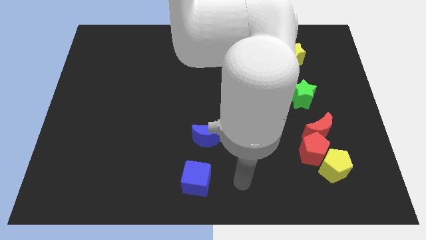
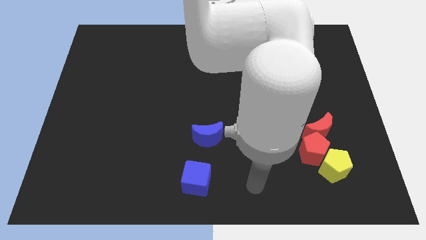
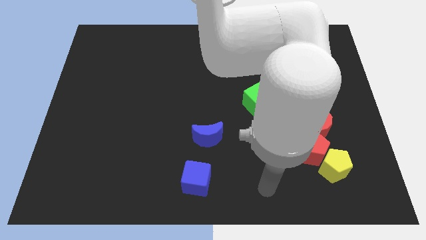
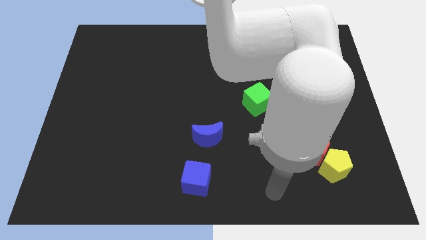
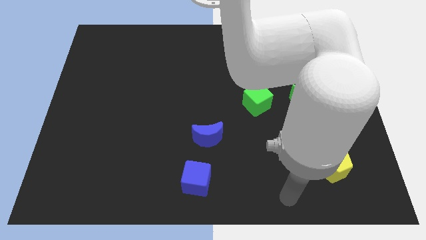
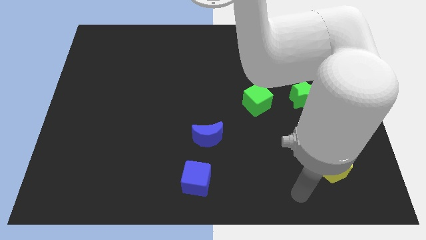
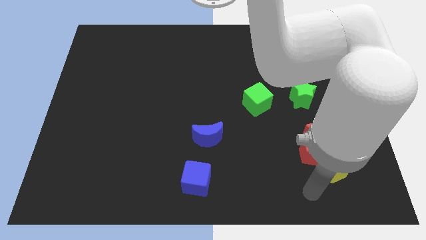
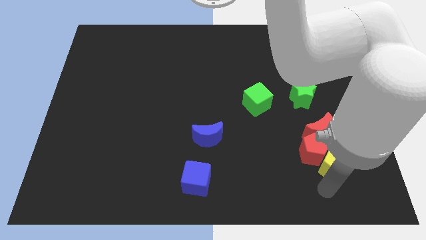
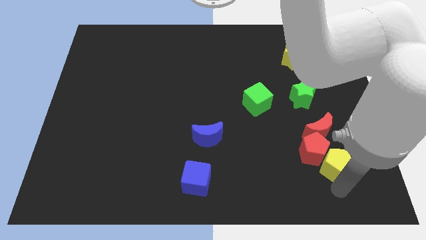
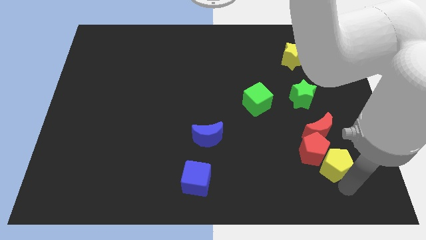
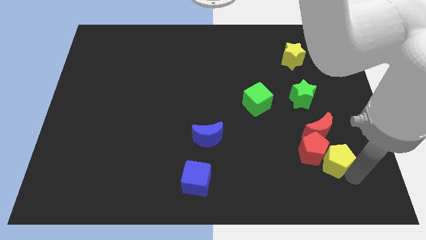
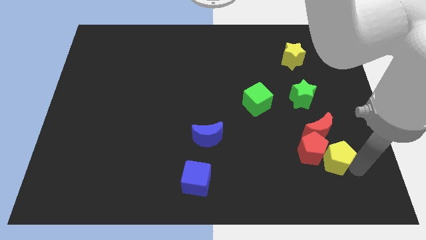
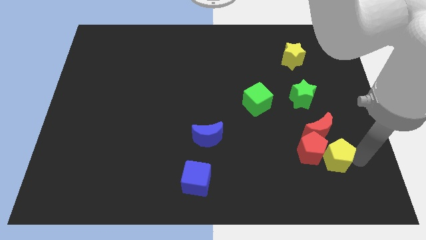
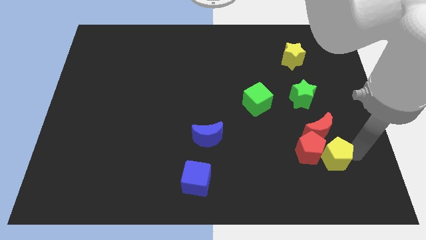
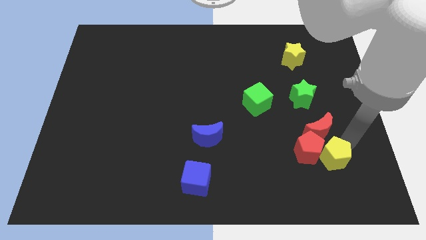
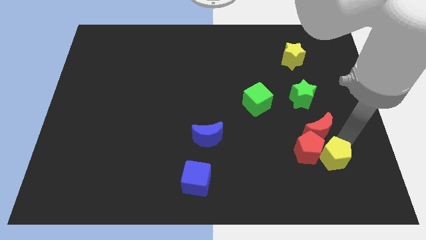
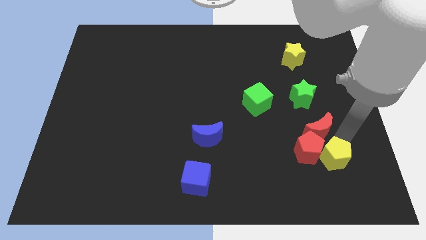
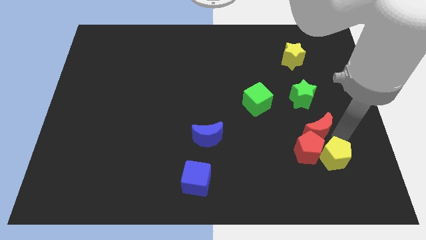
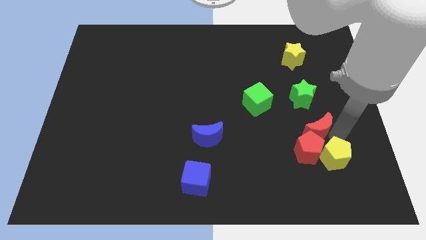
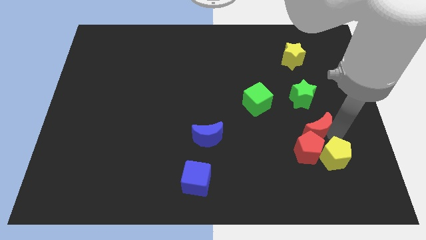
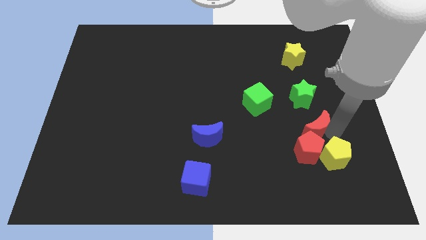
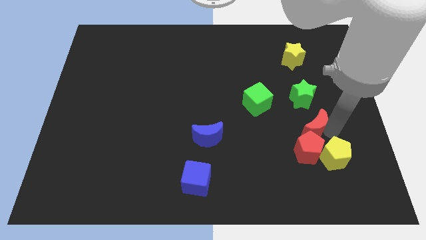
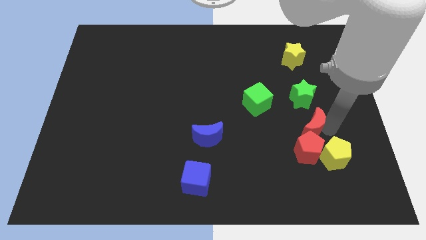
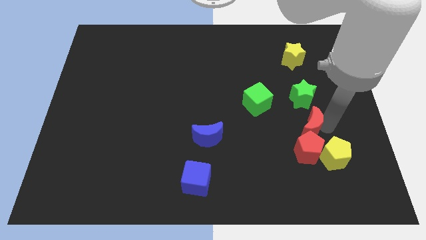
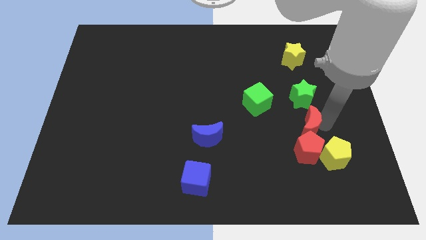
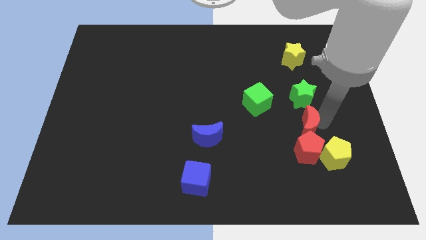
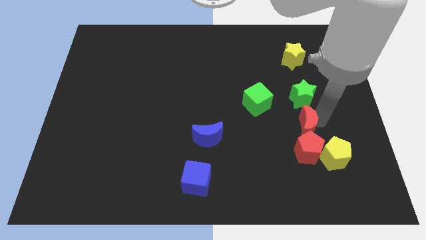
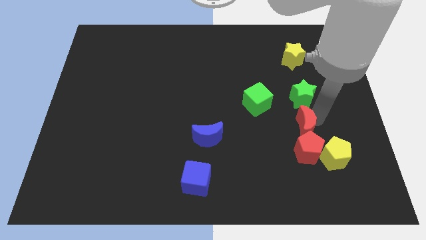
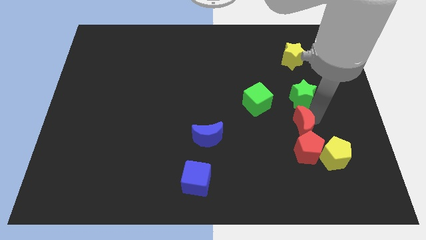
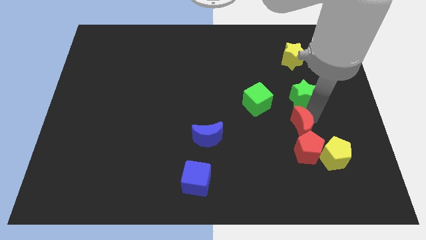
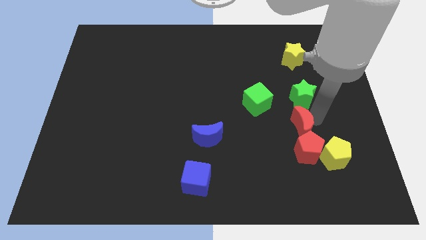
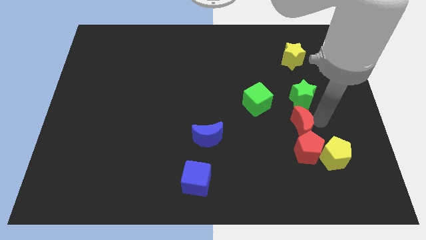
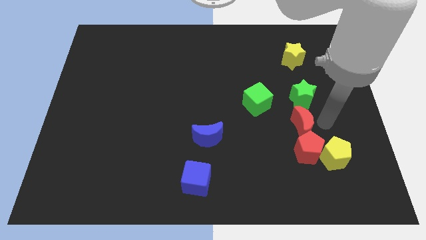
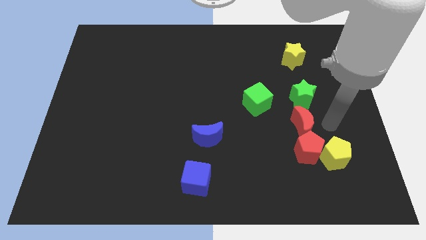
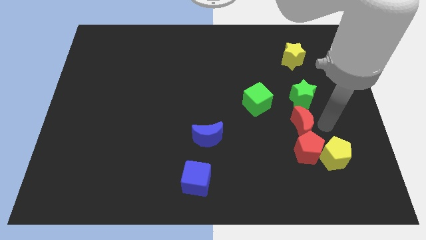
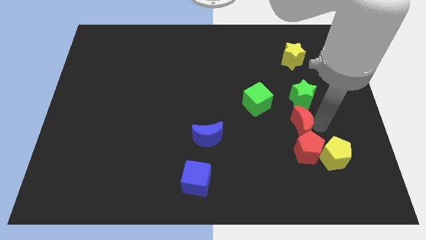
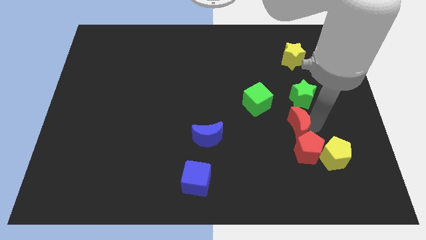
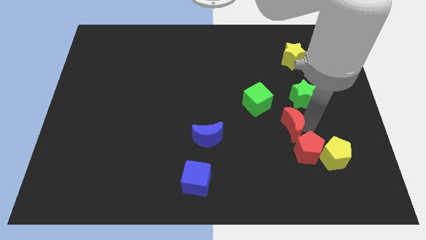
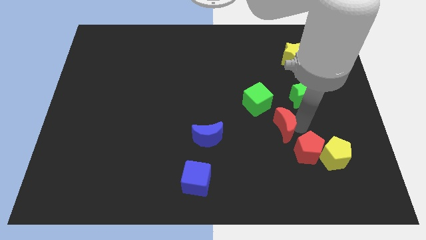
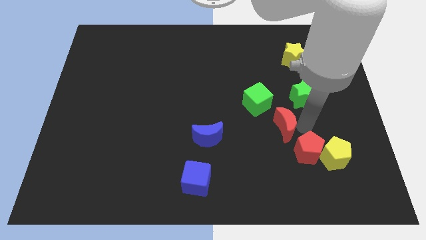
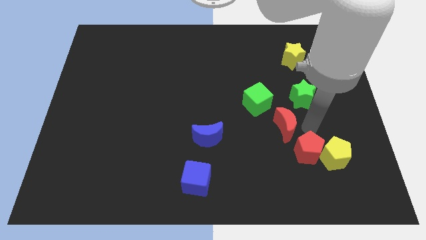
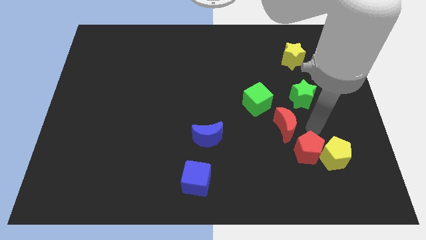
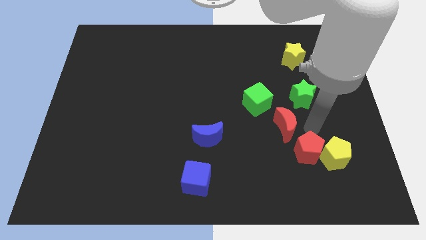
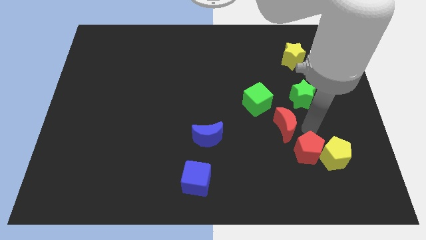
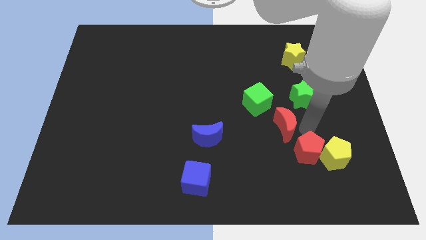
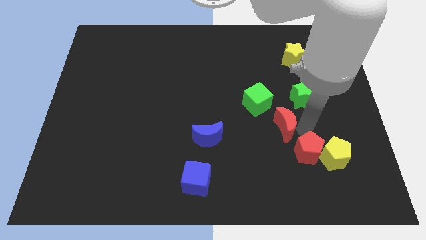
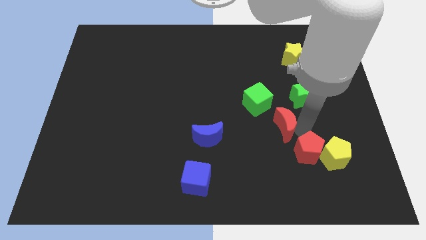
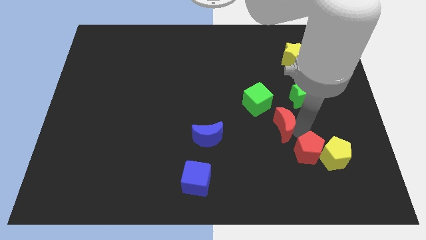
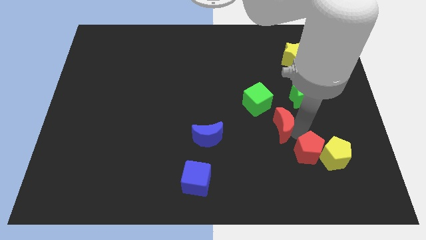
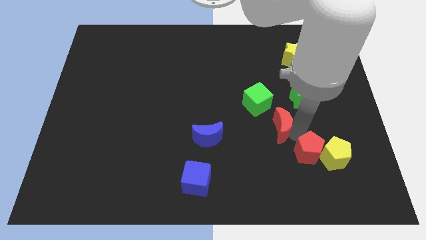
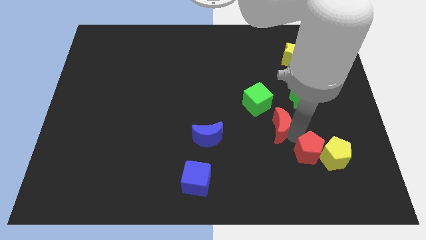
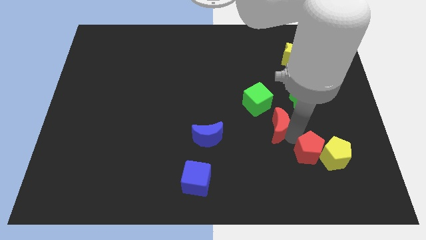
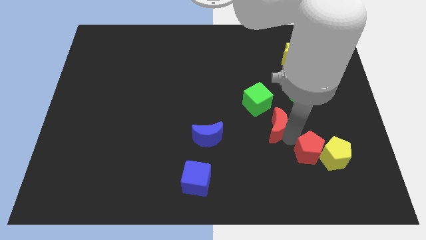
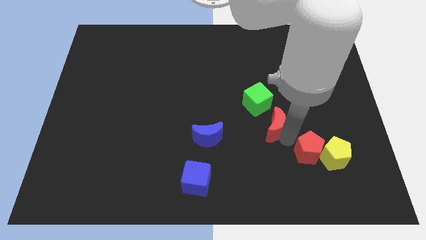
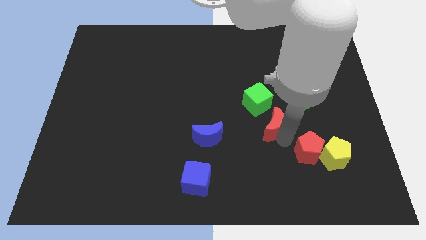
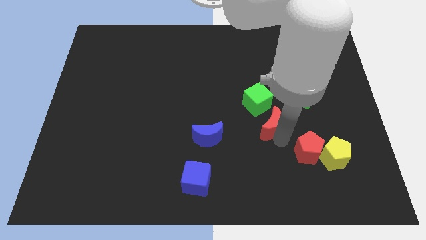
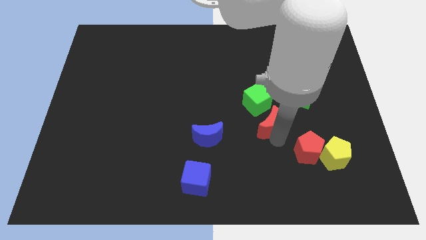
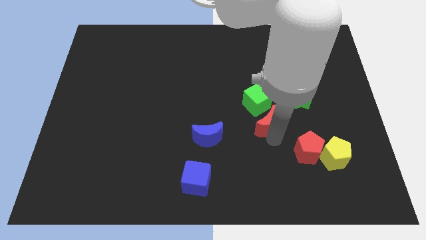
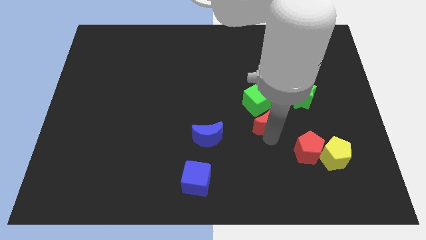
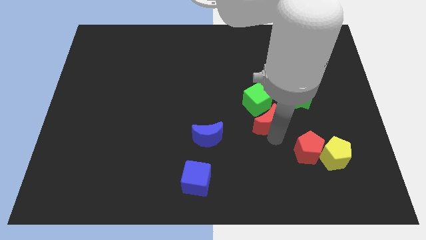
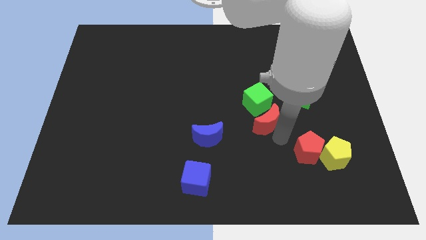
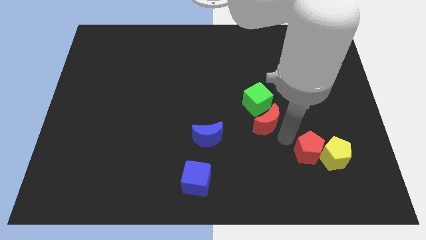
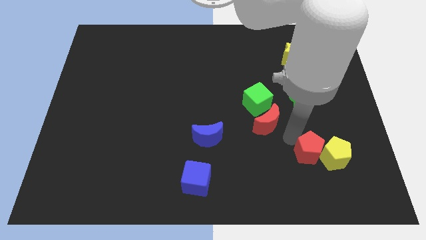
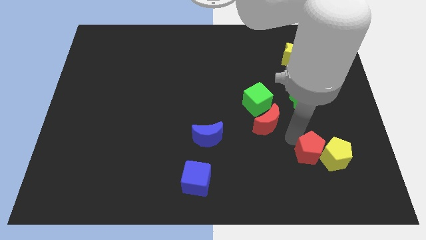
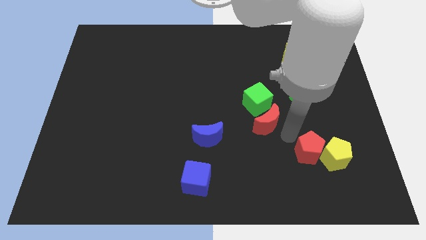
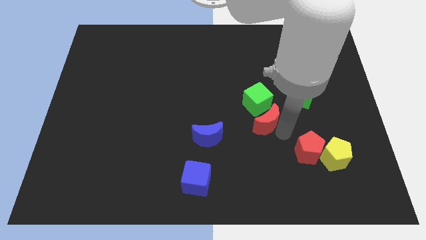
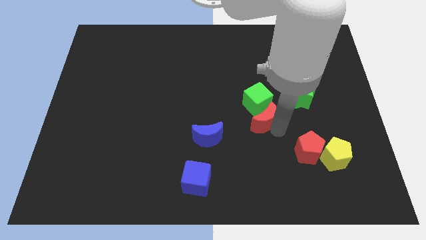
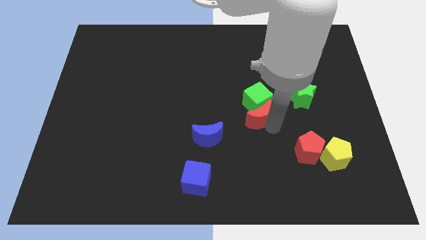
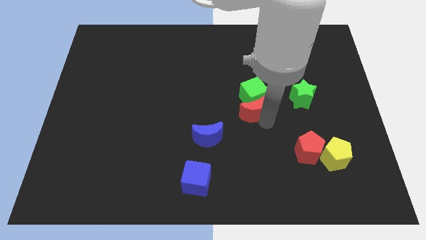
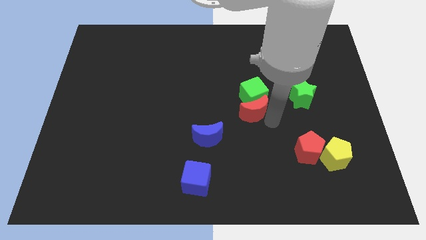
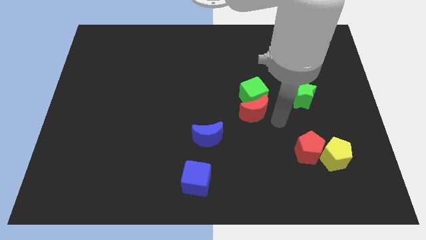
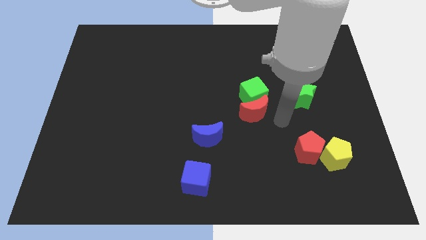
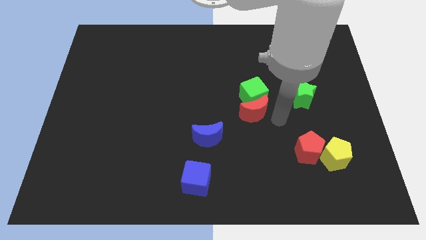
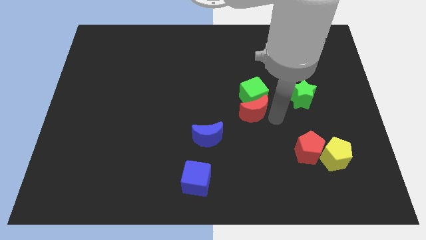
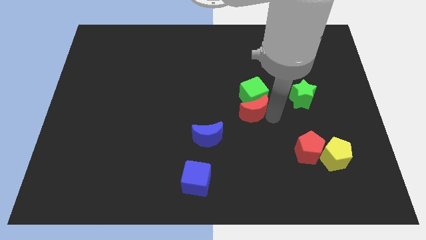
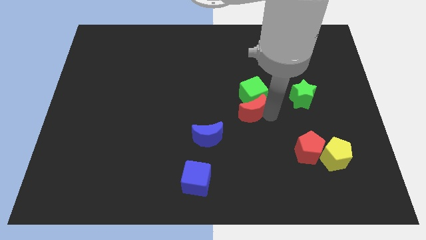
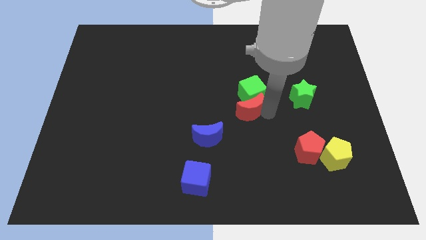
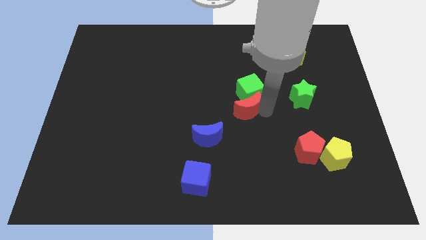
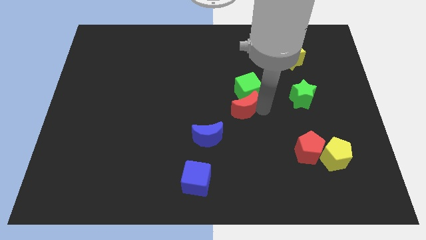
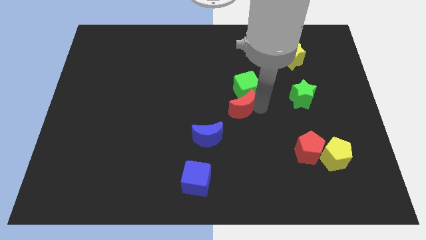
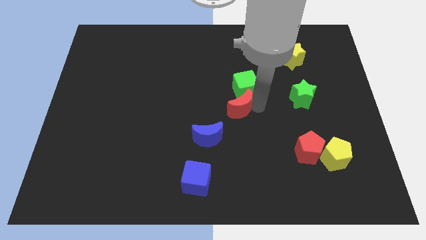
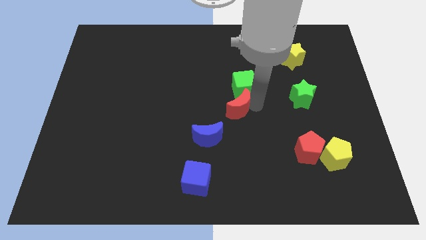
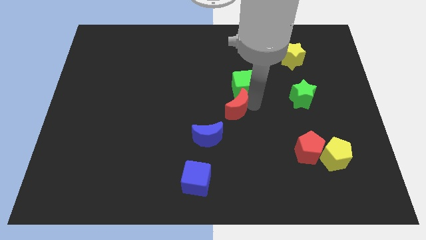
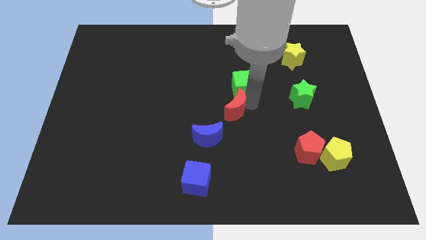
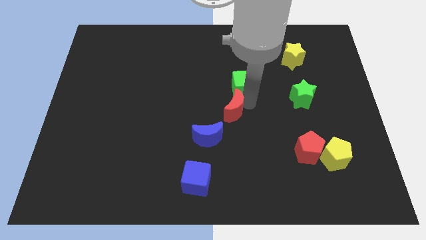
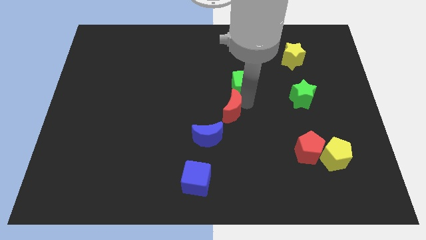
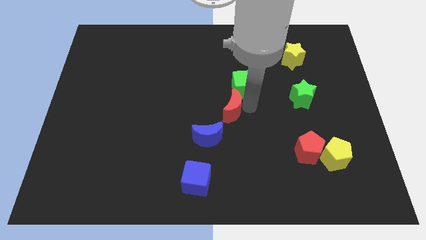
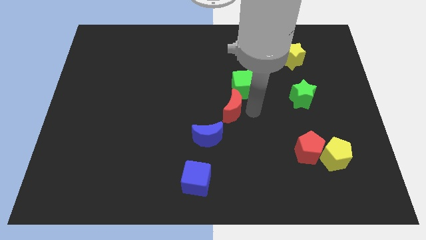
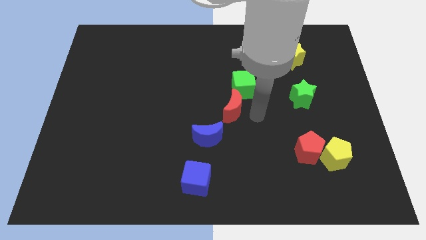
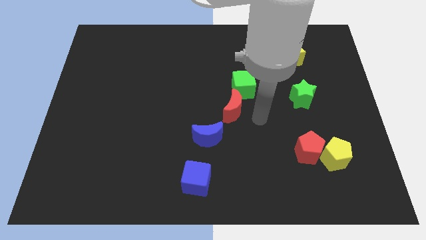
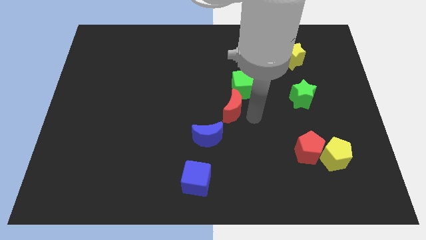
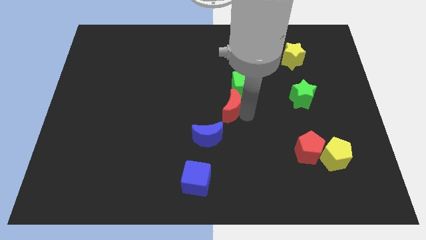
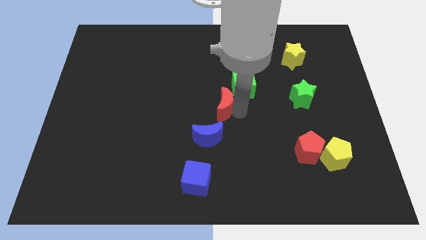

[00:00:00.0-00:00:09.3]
move the red moon to the top side of the blue moon
